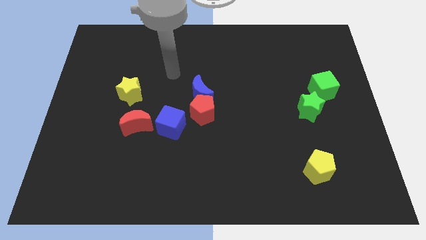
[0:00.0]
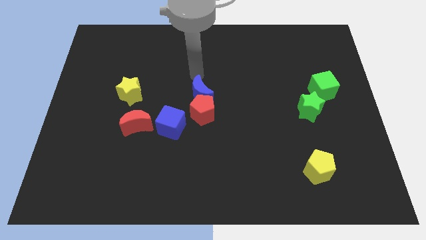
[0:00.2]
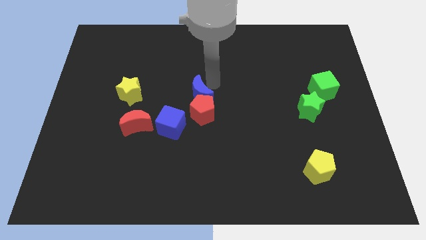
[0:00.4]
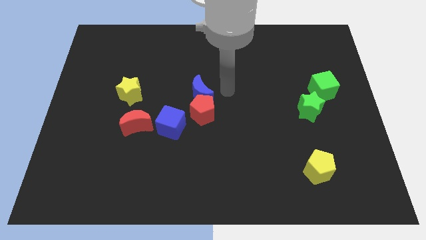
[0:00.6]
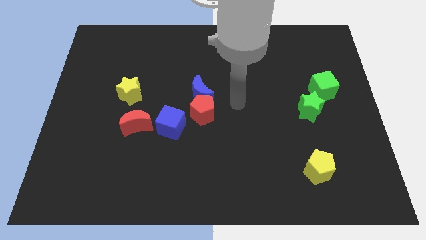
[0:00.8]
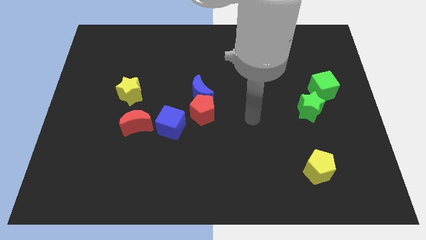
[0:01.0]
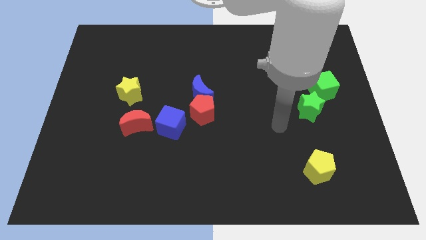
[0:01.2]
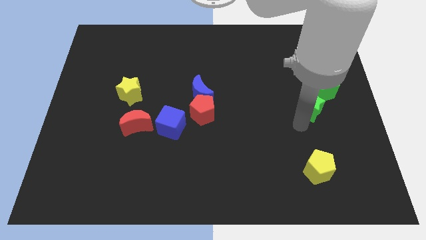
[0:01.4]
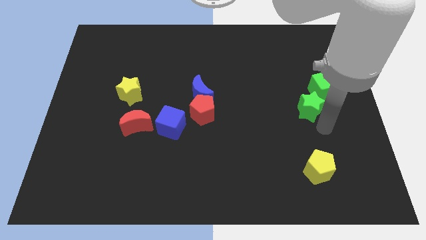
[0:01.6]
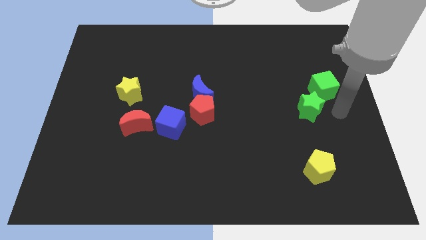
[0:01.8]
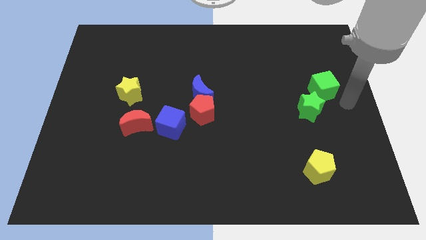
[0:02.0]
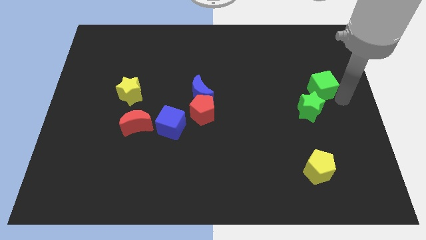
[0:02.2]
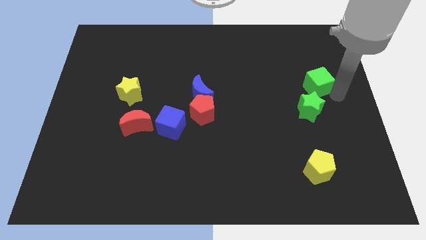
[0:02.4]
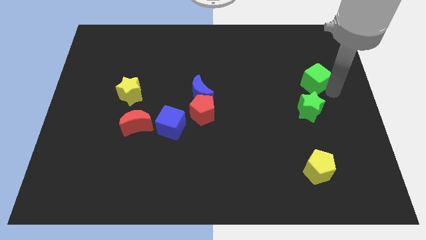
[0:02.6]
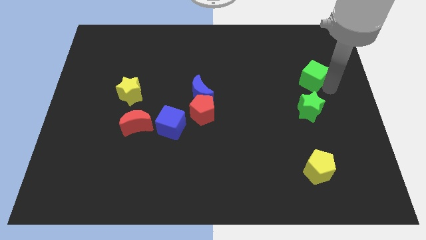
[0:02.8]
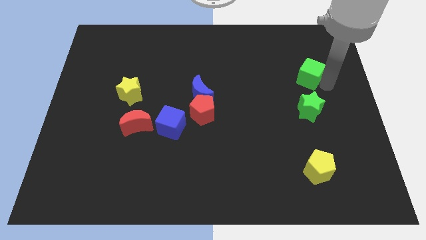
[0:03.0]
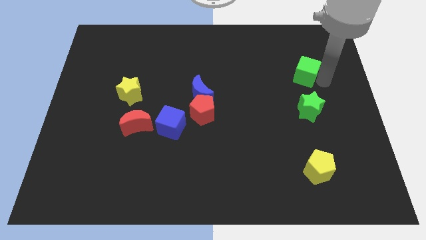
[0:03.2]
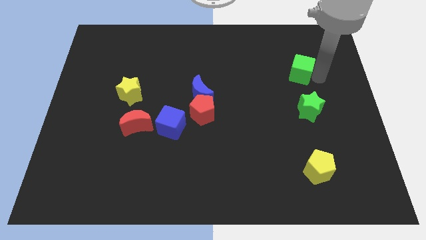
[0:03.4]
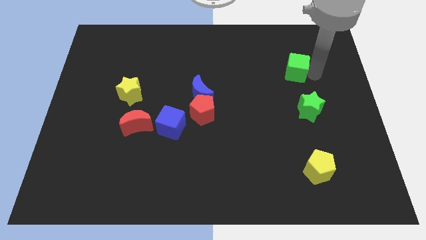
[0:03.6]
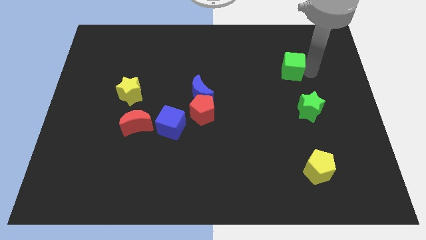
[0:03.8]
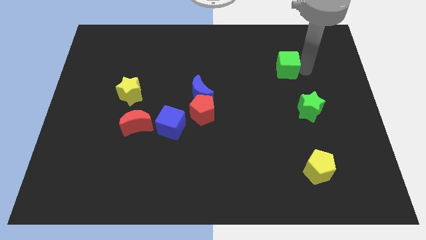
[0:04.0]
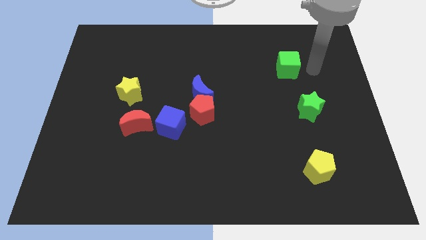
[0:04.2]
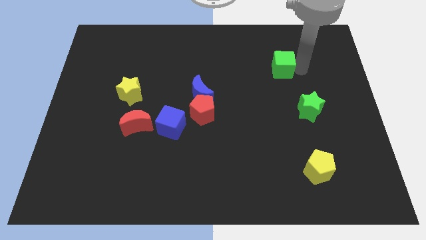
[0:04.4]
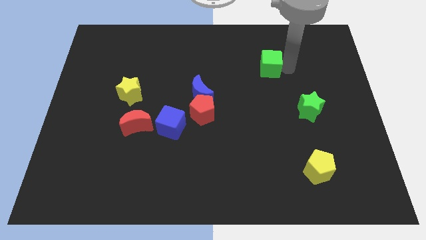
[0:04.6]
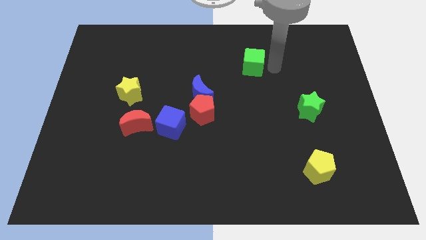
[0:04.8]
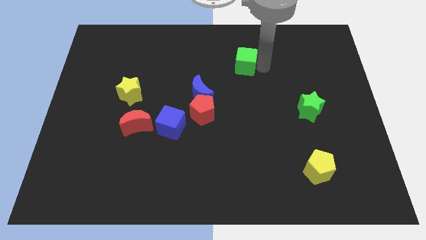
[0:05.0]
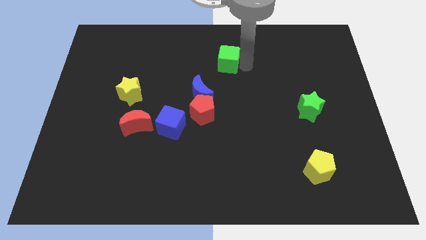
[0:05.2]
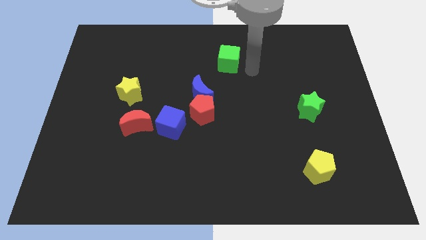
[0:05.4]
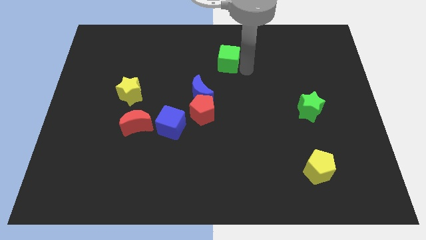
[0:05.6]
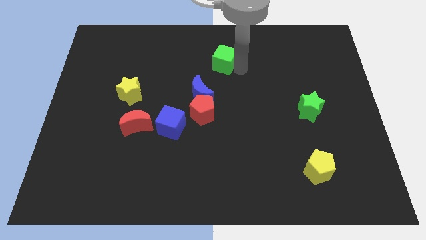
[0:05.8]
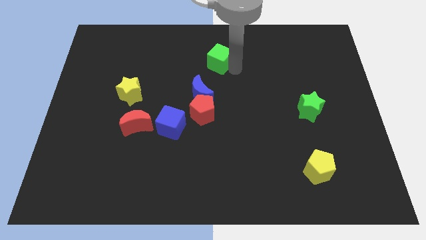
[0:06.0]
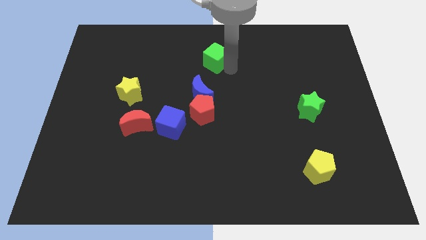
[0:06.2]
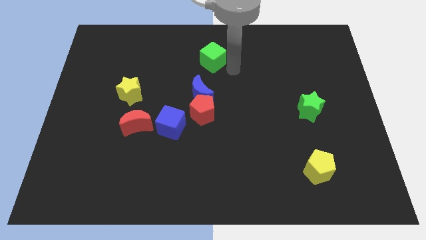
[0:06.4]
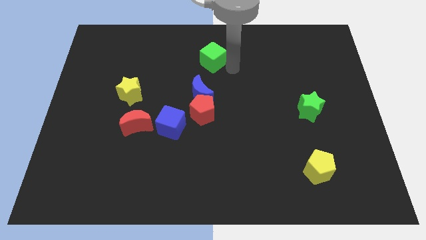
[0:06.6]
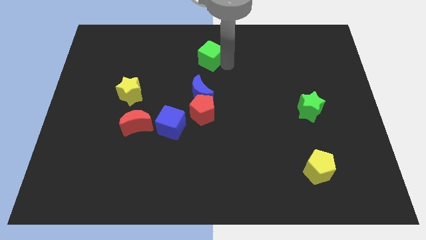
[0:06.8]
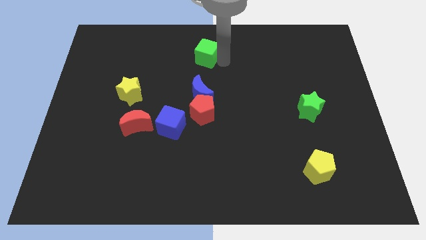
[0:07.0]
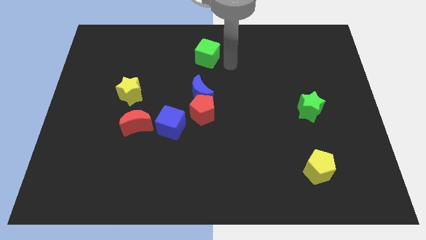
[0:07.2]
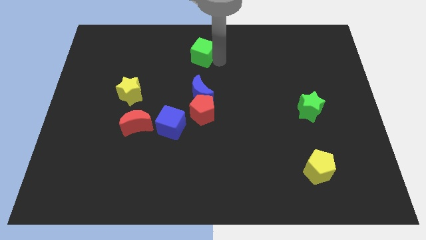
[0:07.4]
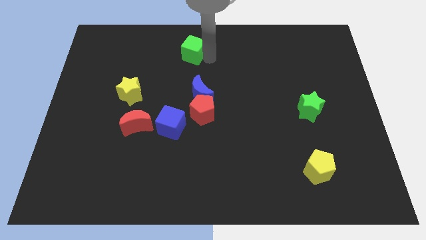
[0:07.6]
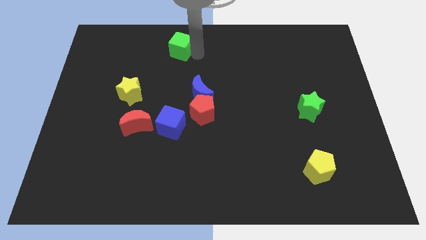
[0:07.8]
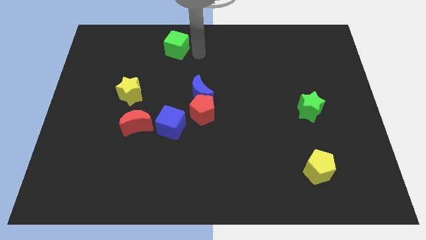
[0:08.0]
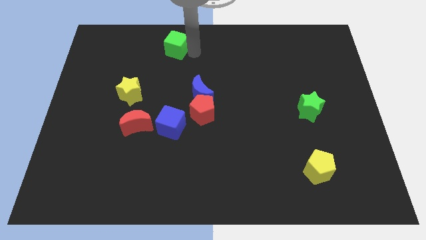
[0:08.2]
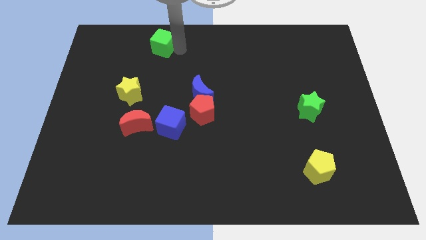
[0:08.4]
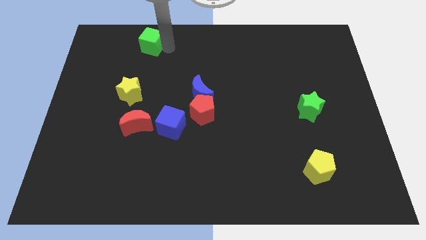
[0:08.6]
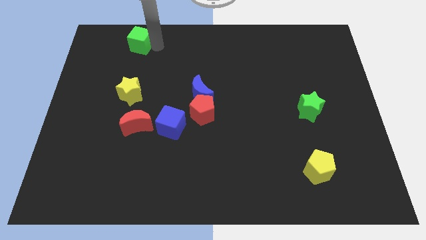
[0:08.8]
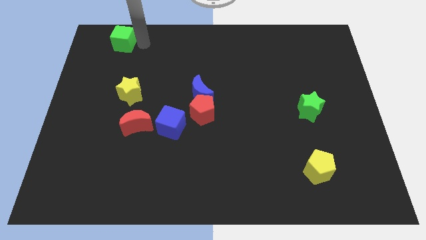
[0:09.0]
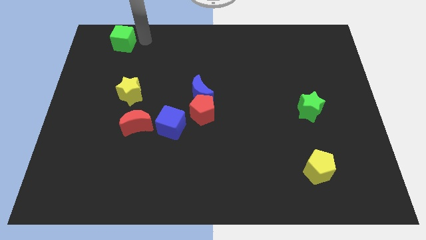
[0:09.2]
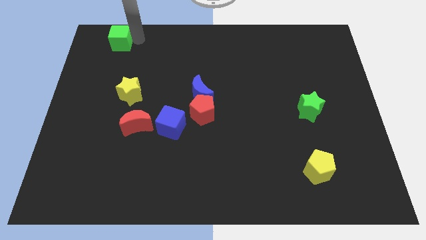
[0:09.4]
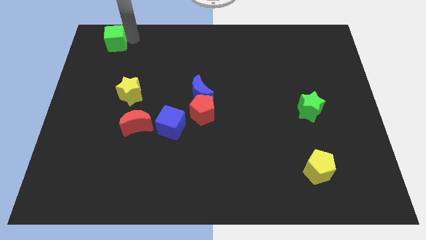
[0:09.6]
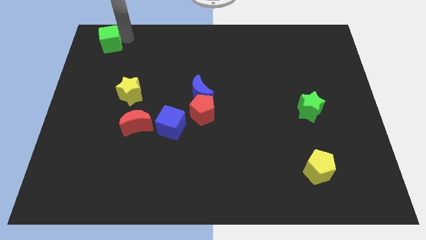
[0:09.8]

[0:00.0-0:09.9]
put the green cube to the upper left corner

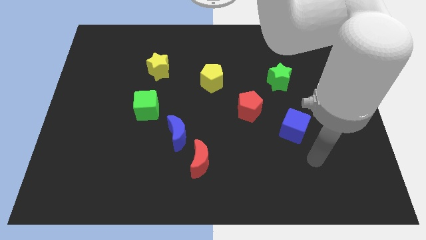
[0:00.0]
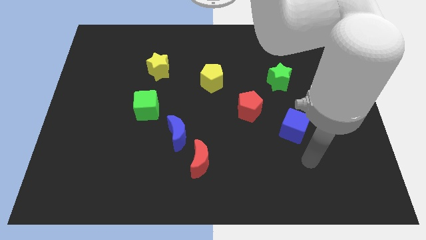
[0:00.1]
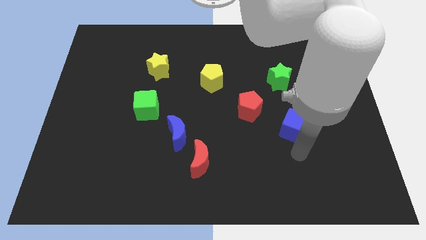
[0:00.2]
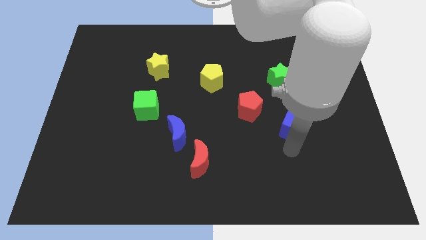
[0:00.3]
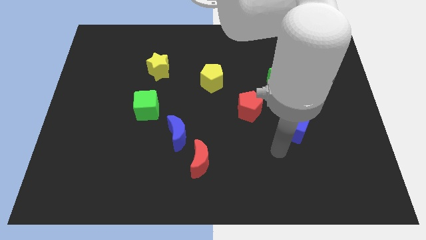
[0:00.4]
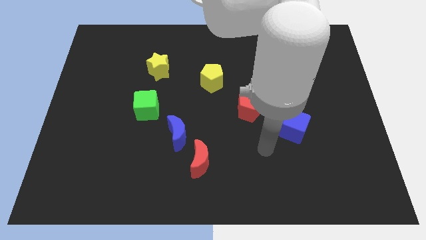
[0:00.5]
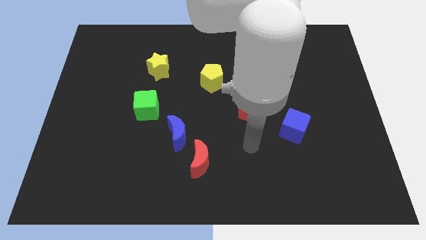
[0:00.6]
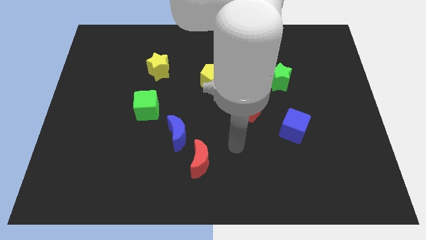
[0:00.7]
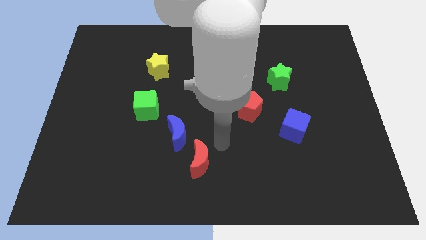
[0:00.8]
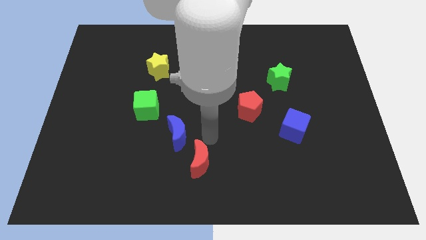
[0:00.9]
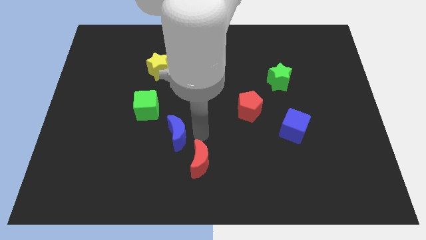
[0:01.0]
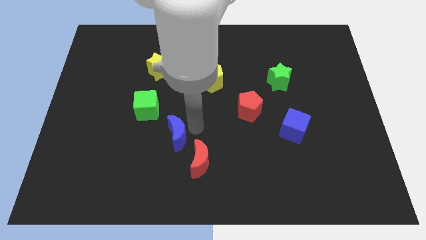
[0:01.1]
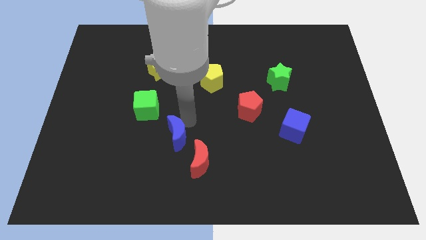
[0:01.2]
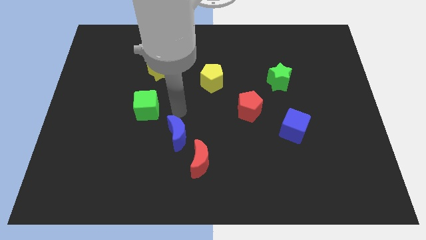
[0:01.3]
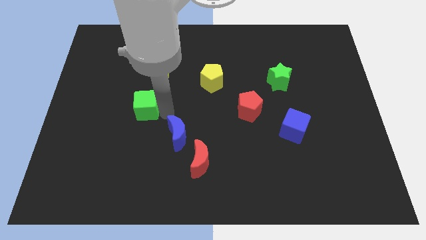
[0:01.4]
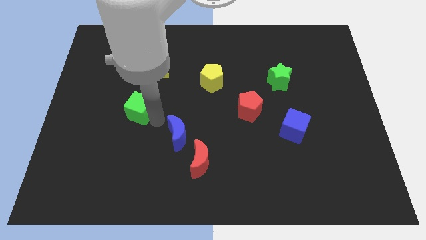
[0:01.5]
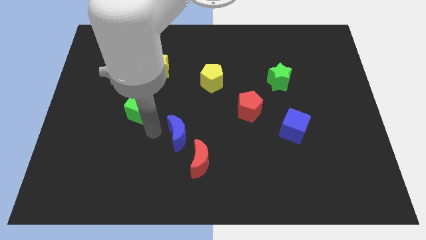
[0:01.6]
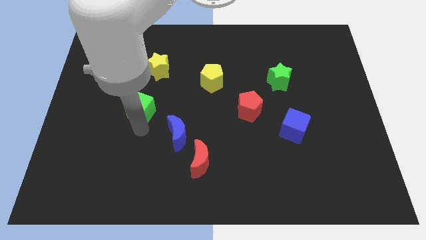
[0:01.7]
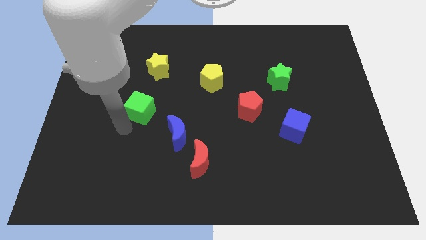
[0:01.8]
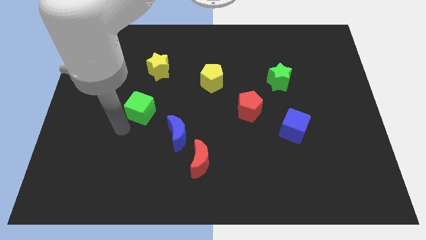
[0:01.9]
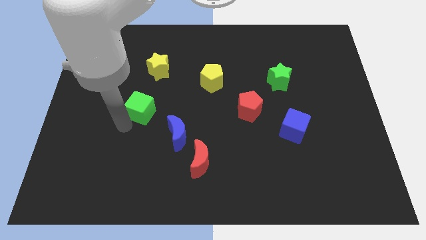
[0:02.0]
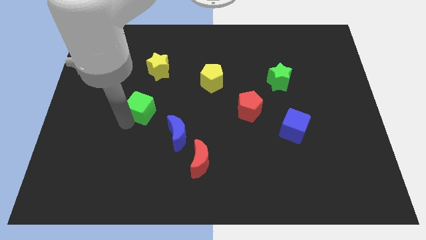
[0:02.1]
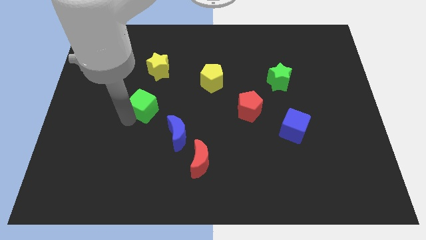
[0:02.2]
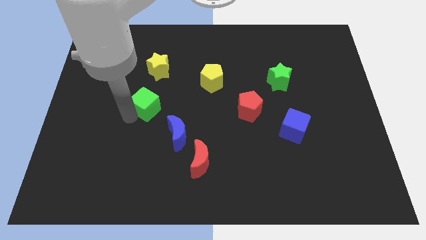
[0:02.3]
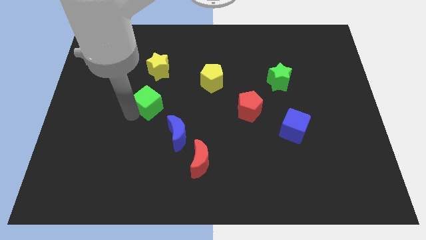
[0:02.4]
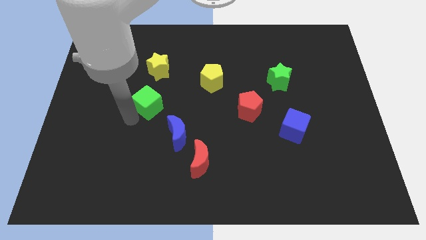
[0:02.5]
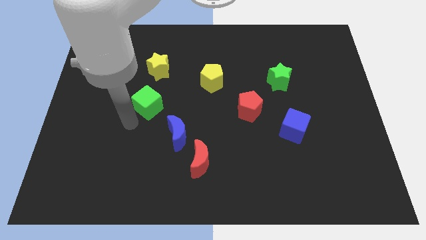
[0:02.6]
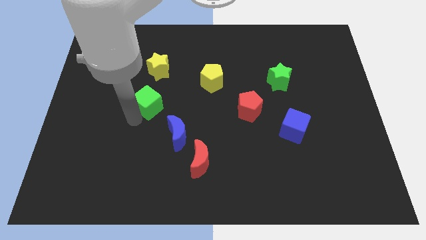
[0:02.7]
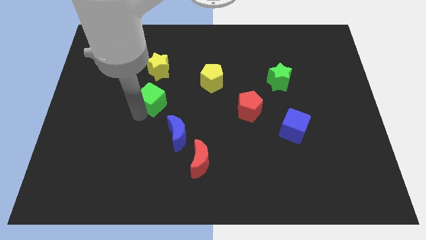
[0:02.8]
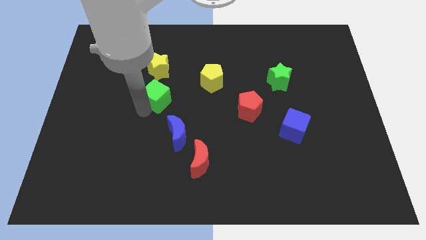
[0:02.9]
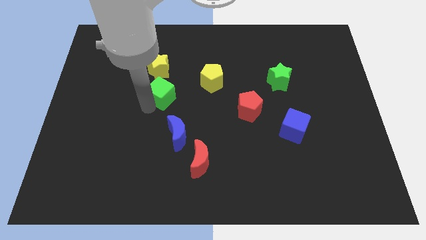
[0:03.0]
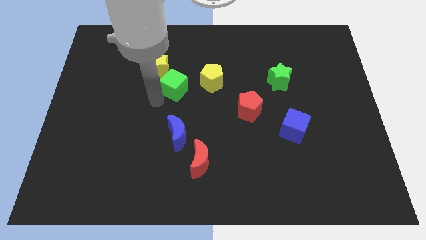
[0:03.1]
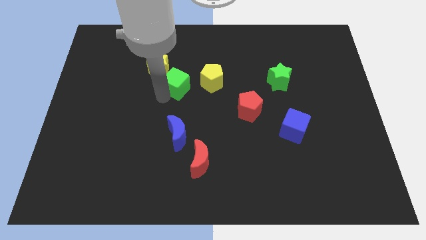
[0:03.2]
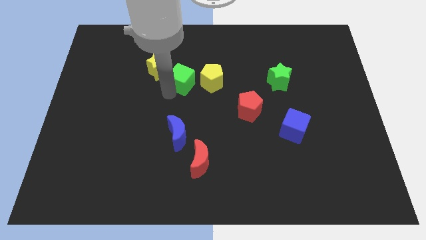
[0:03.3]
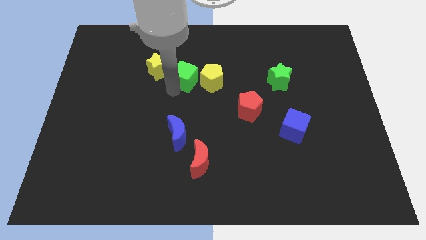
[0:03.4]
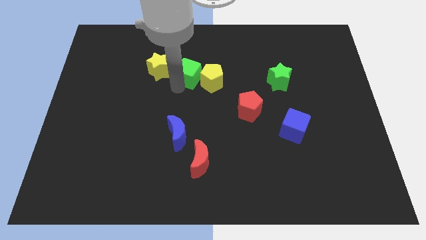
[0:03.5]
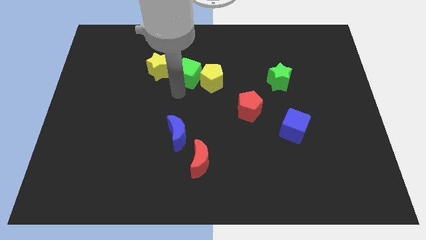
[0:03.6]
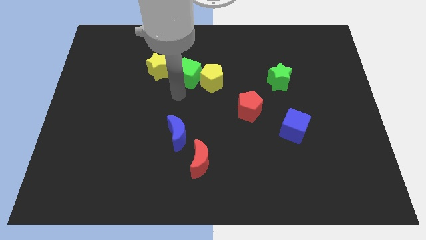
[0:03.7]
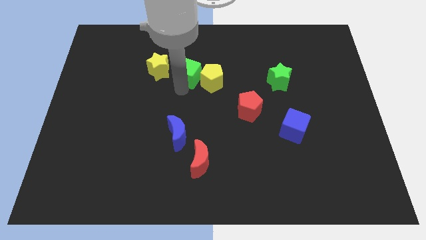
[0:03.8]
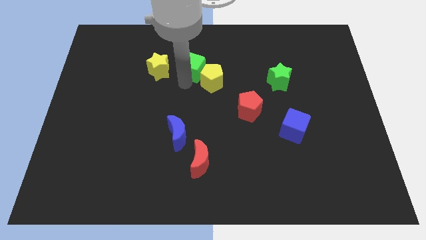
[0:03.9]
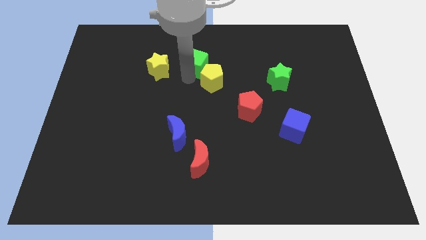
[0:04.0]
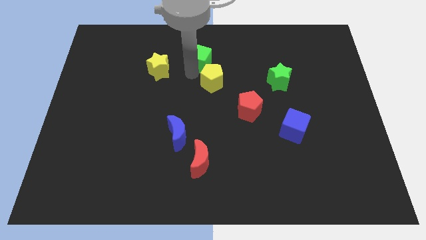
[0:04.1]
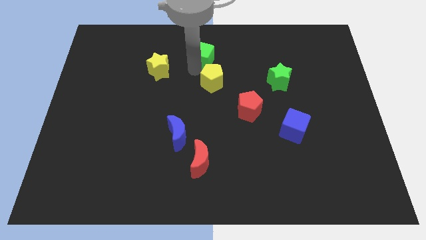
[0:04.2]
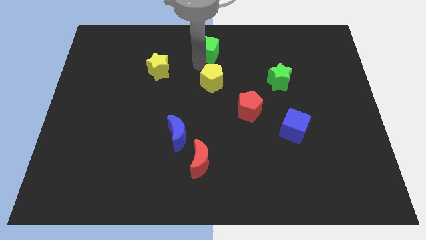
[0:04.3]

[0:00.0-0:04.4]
move the green cube to the towards your base
